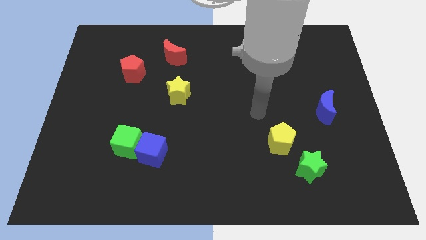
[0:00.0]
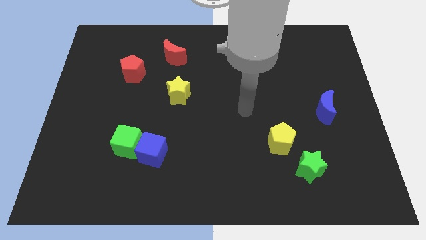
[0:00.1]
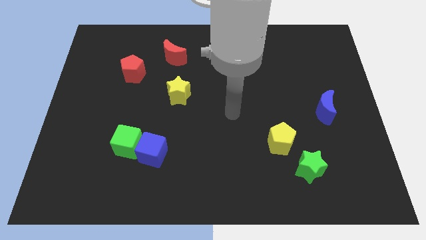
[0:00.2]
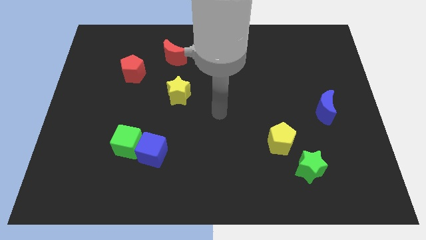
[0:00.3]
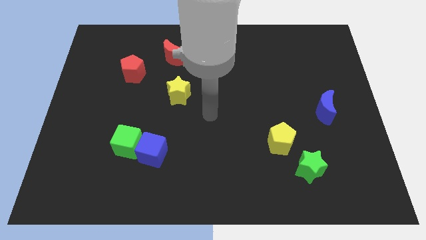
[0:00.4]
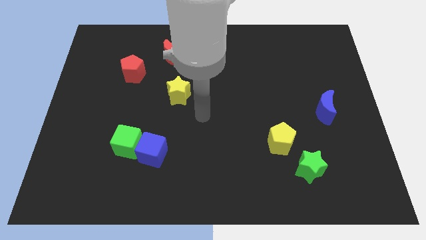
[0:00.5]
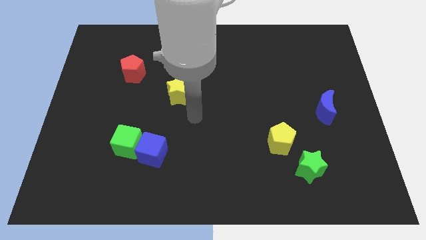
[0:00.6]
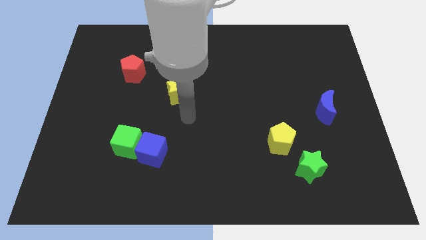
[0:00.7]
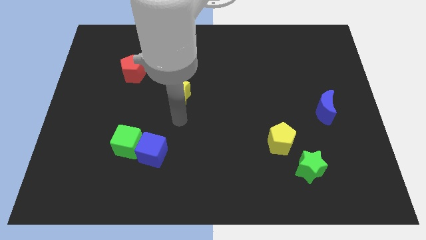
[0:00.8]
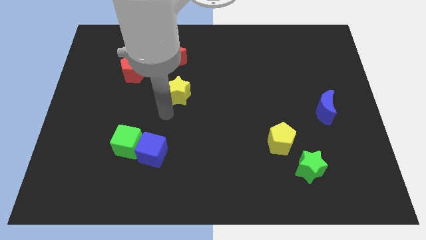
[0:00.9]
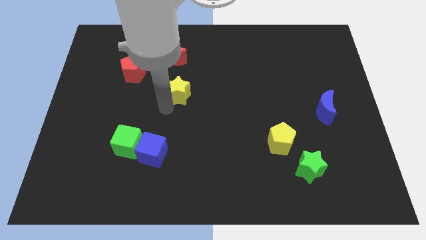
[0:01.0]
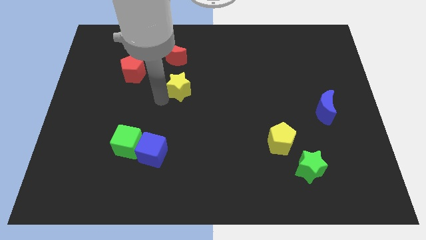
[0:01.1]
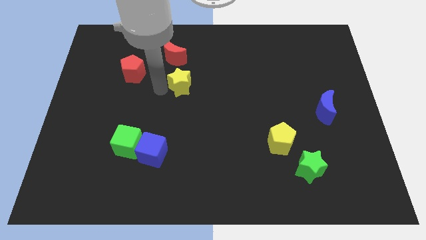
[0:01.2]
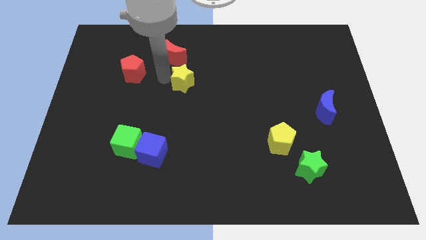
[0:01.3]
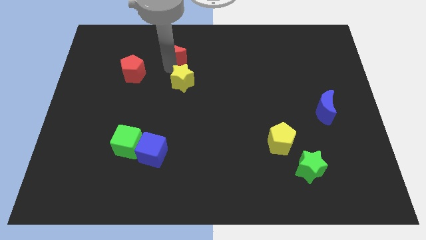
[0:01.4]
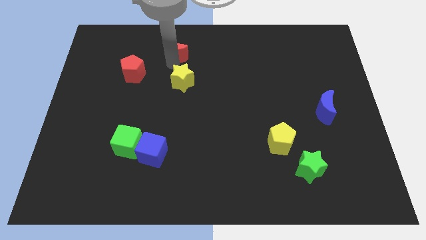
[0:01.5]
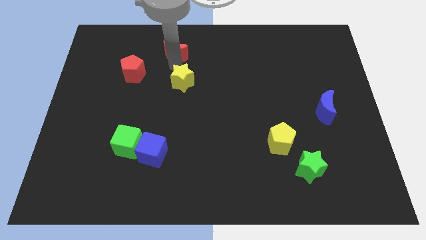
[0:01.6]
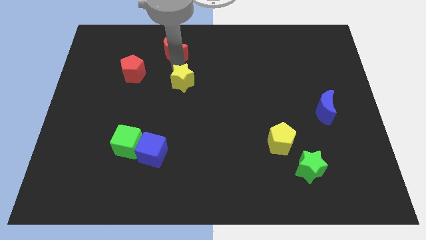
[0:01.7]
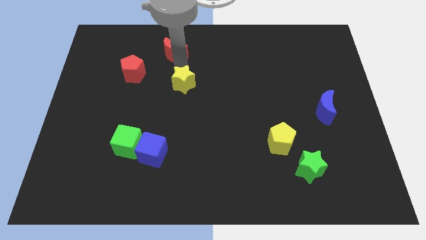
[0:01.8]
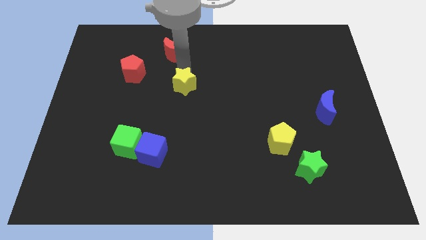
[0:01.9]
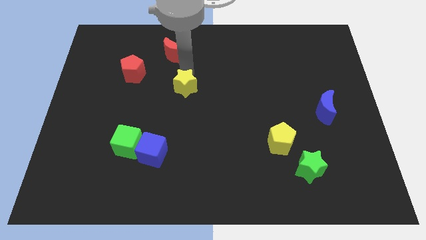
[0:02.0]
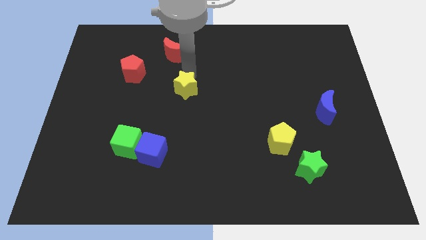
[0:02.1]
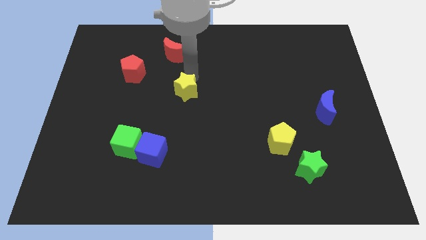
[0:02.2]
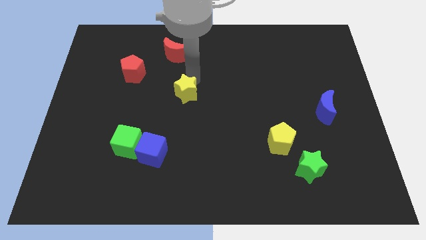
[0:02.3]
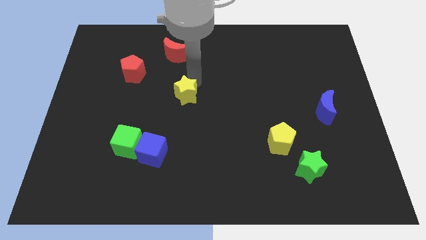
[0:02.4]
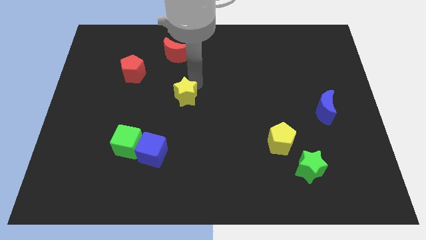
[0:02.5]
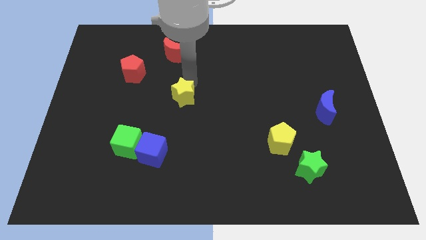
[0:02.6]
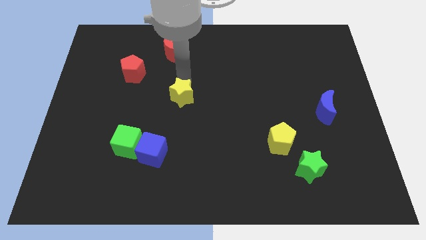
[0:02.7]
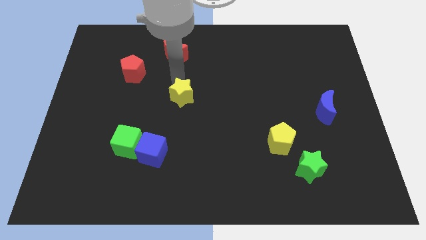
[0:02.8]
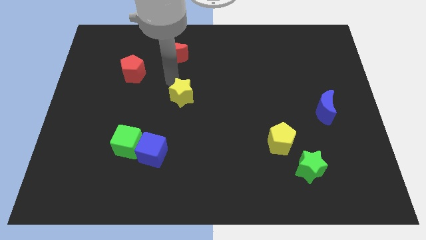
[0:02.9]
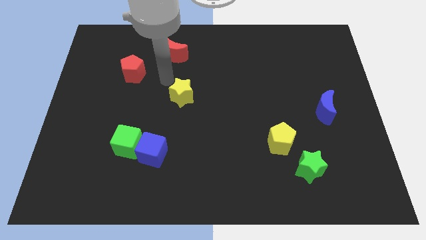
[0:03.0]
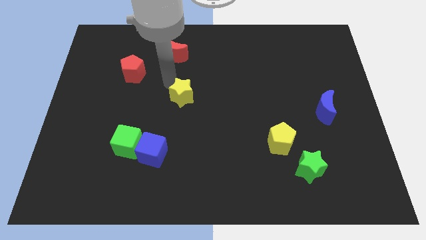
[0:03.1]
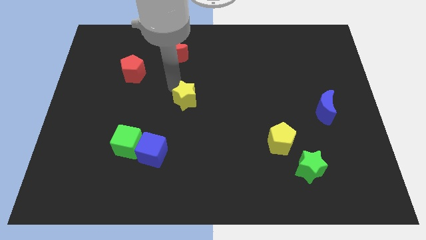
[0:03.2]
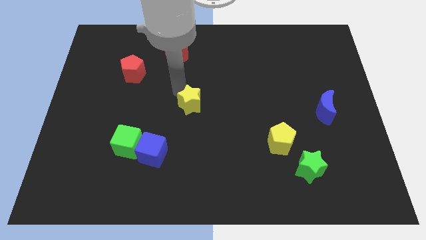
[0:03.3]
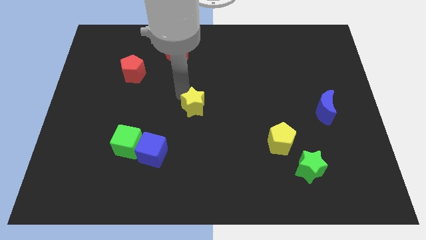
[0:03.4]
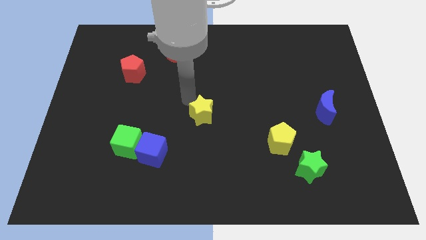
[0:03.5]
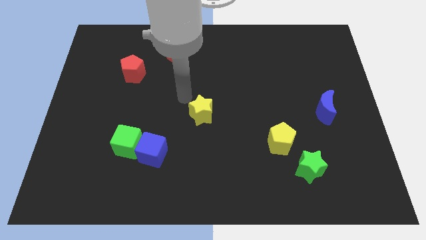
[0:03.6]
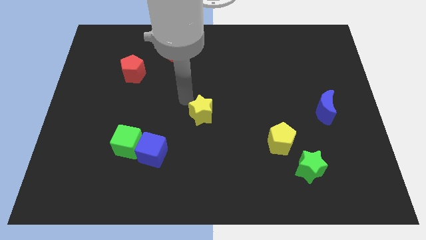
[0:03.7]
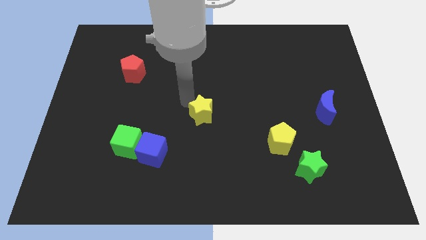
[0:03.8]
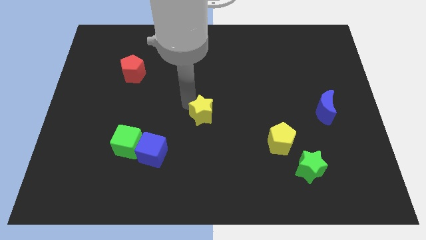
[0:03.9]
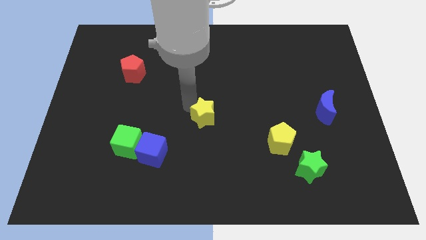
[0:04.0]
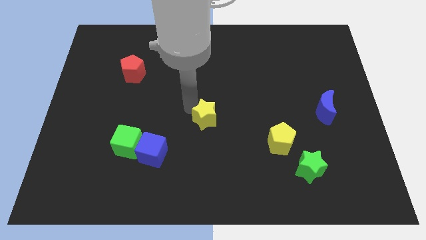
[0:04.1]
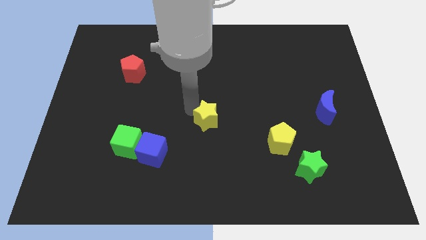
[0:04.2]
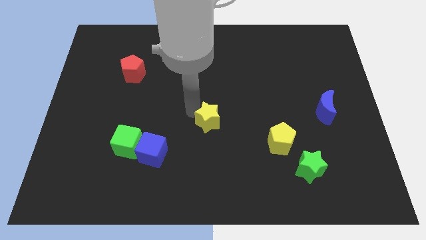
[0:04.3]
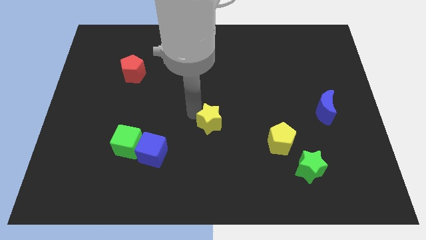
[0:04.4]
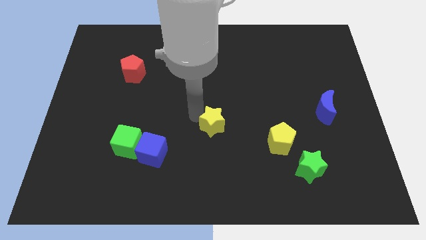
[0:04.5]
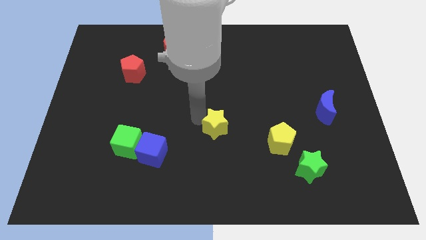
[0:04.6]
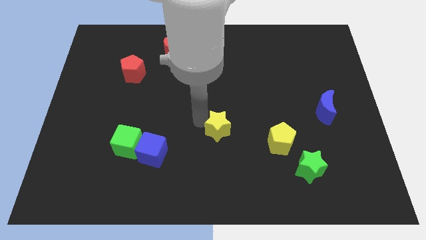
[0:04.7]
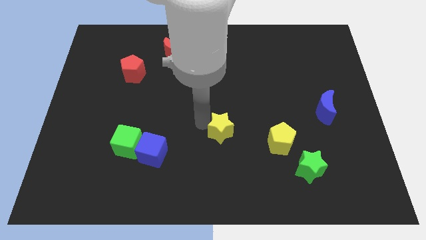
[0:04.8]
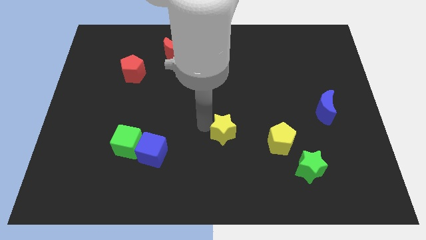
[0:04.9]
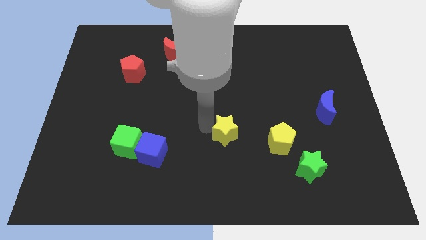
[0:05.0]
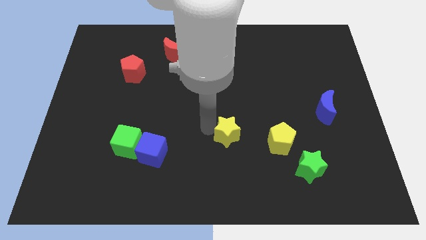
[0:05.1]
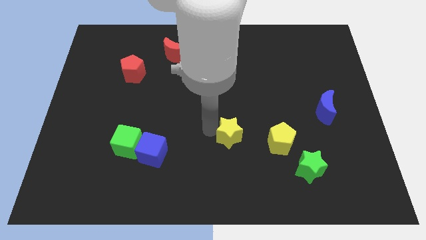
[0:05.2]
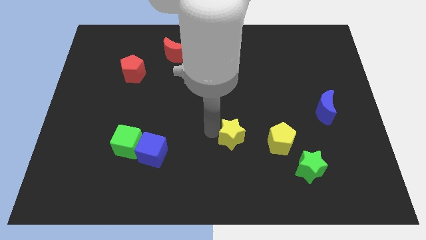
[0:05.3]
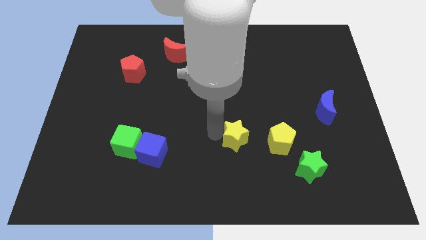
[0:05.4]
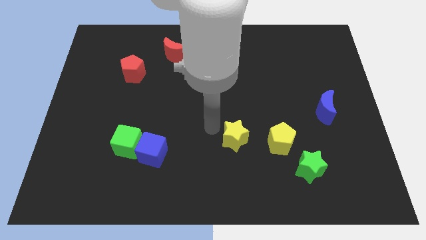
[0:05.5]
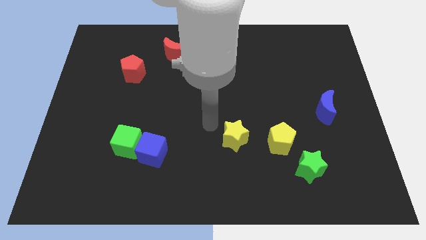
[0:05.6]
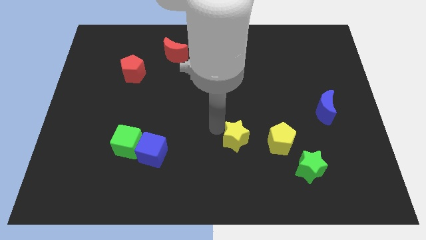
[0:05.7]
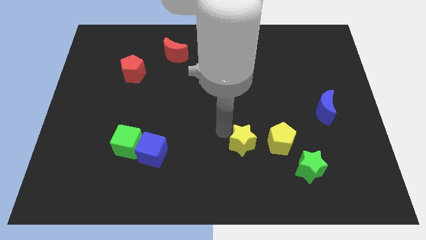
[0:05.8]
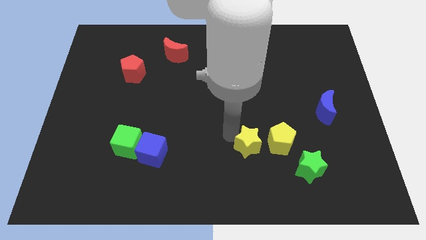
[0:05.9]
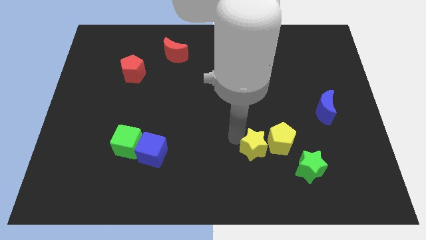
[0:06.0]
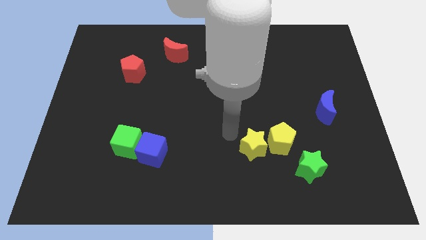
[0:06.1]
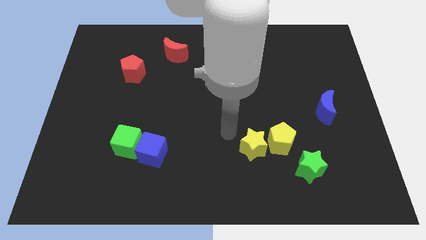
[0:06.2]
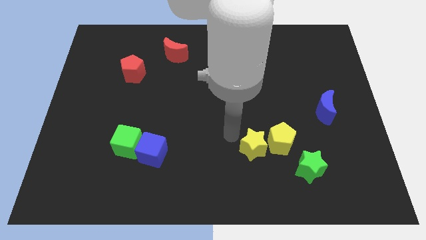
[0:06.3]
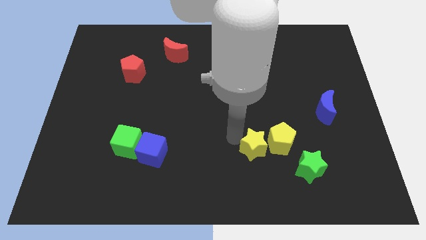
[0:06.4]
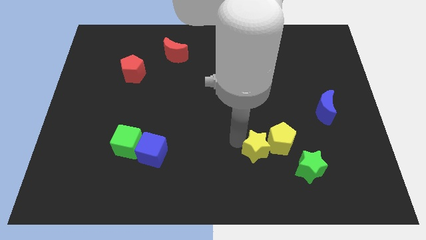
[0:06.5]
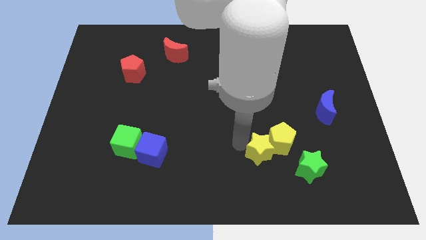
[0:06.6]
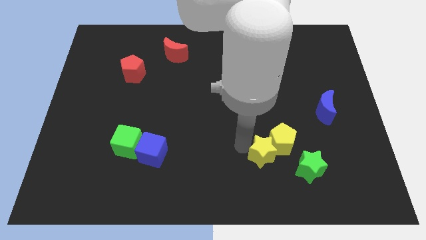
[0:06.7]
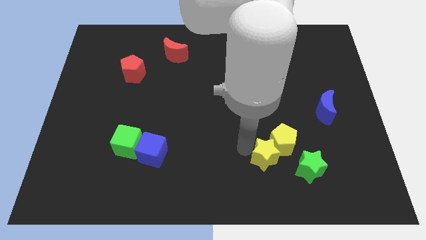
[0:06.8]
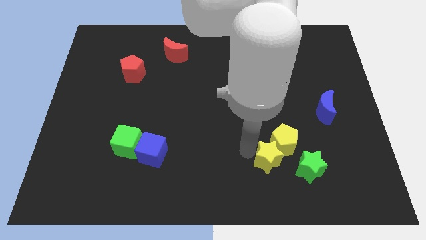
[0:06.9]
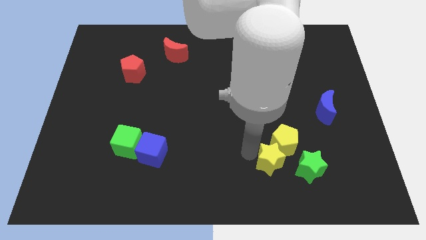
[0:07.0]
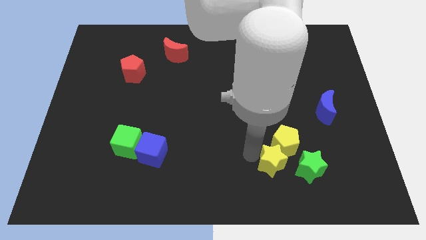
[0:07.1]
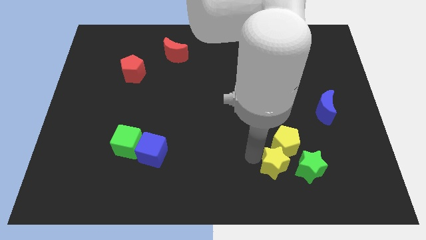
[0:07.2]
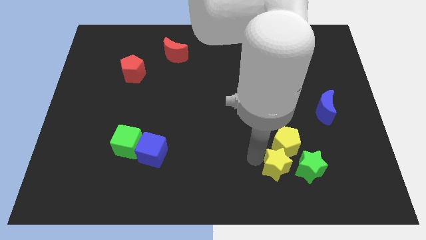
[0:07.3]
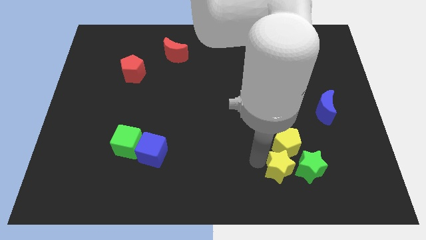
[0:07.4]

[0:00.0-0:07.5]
push the yellow star close to the green star
